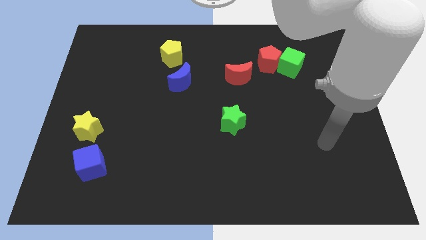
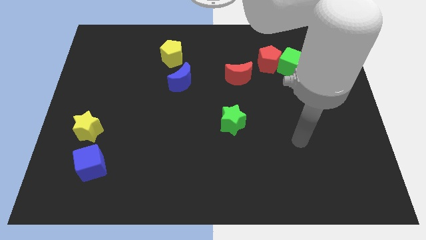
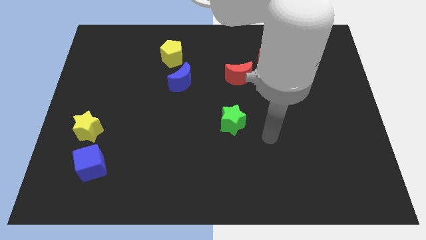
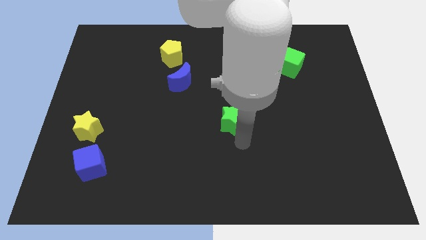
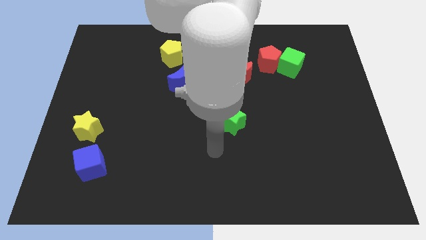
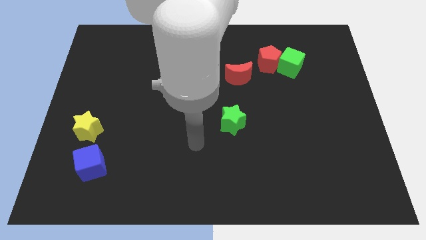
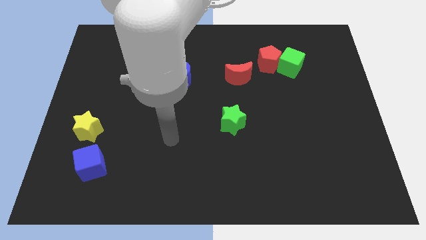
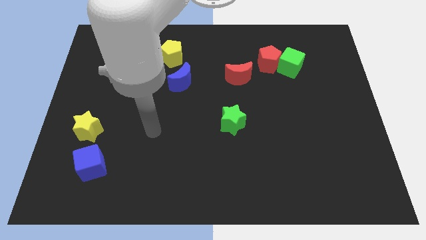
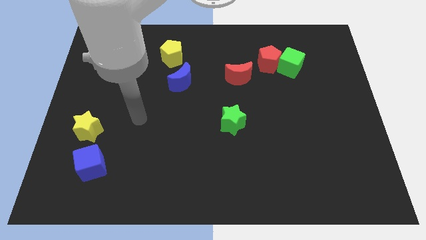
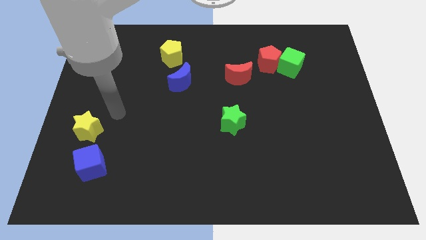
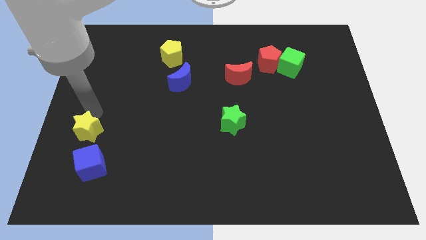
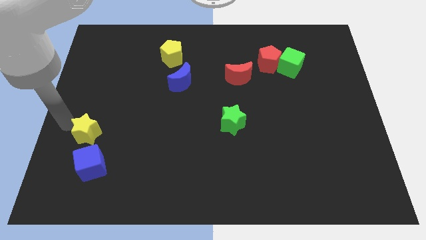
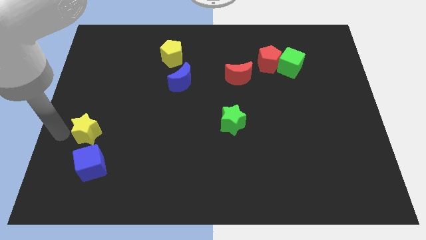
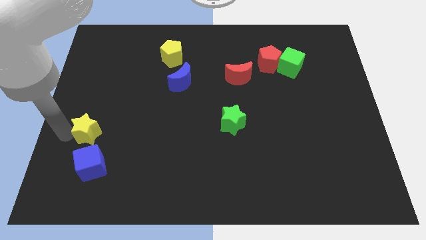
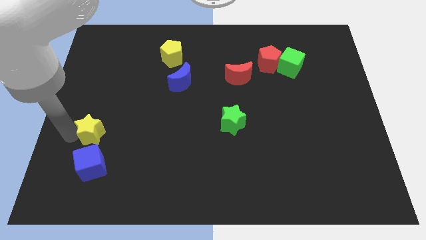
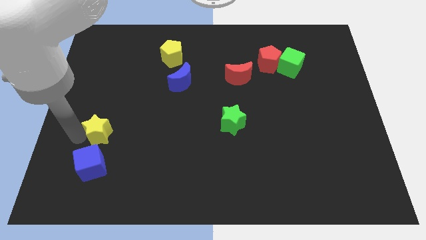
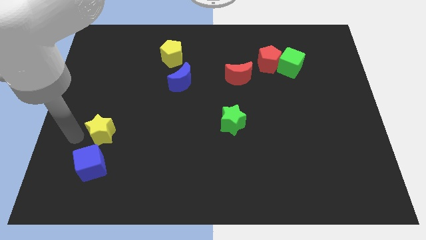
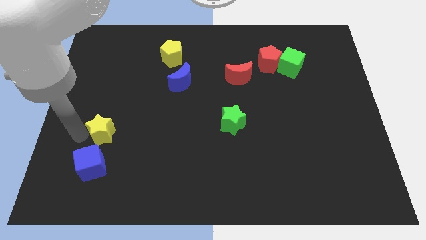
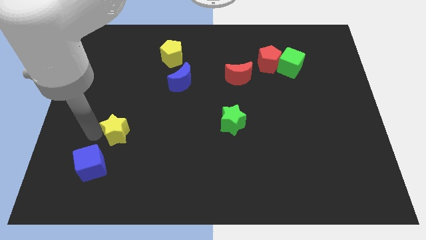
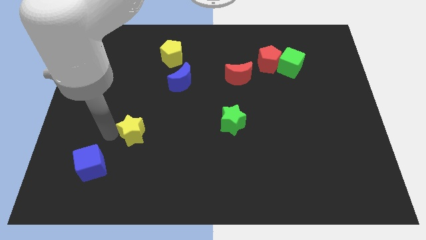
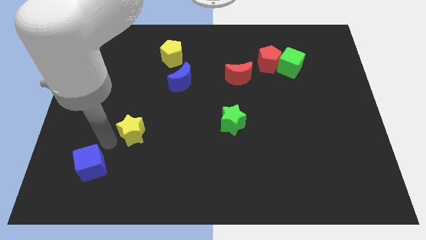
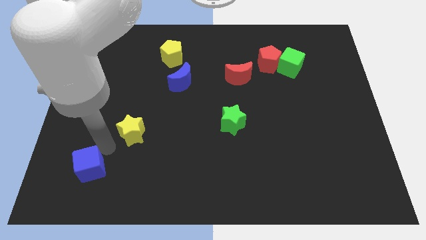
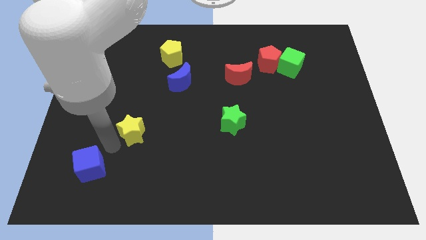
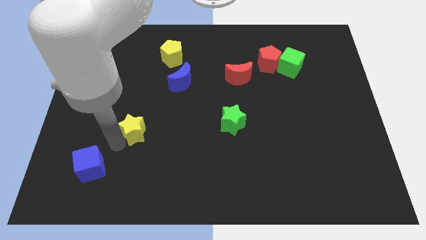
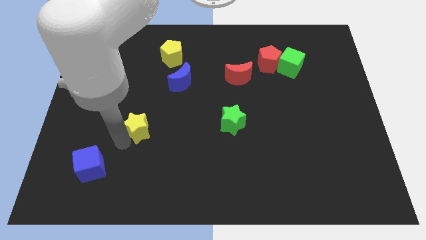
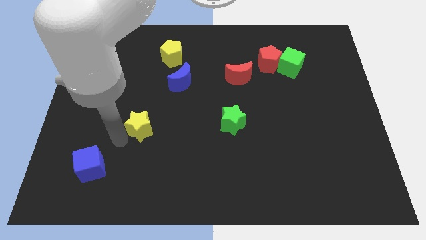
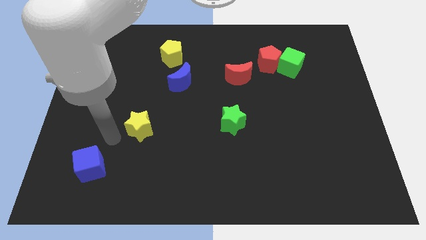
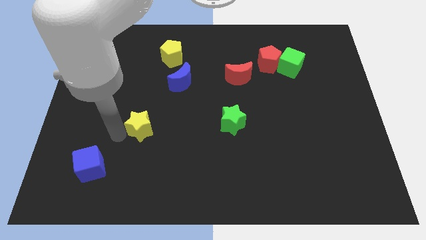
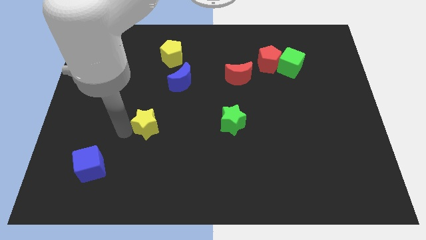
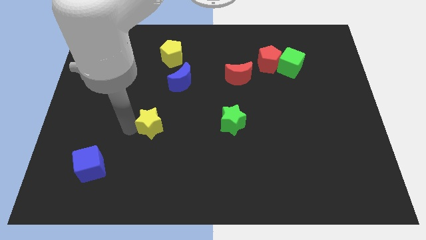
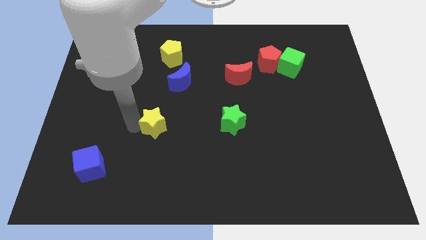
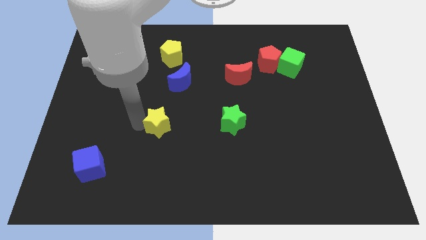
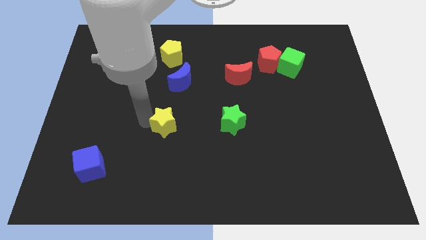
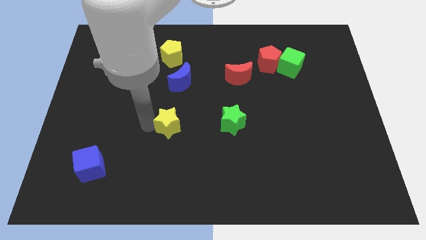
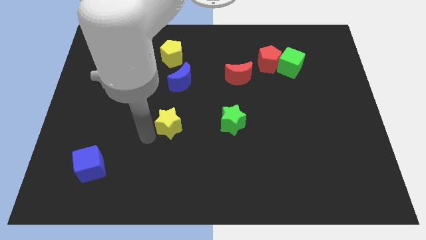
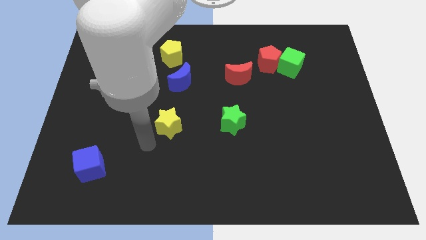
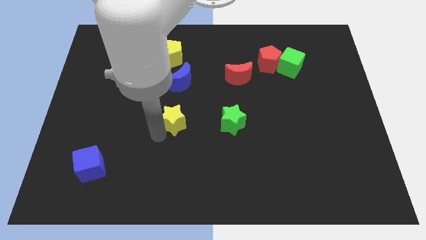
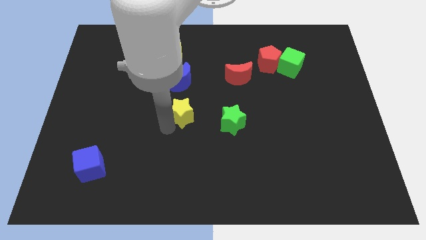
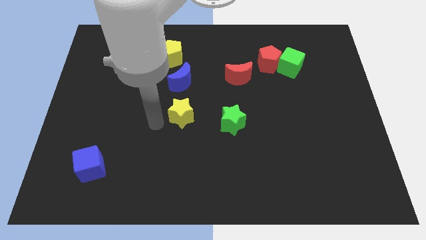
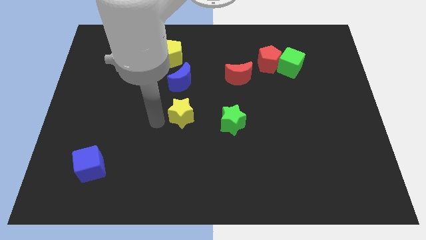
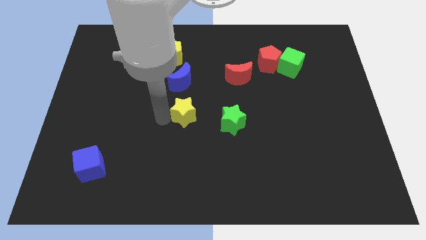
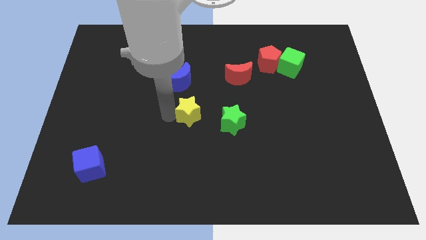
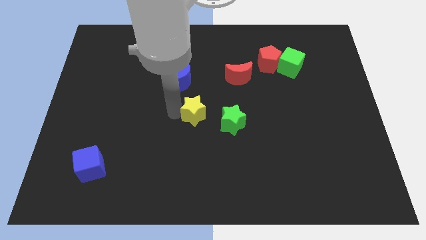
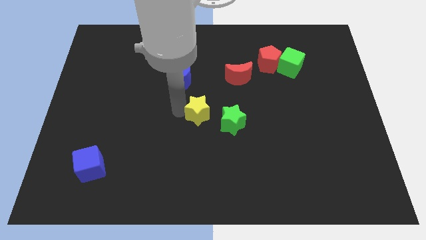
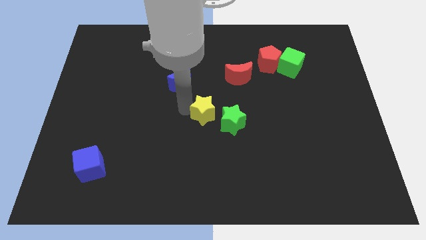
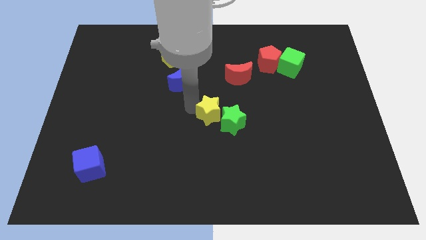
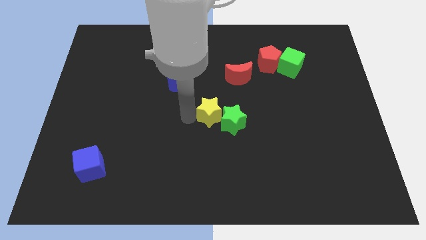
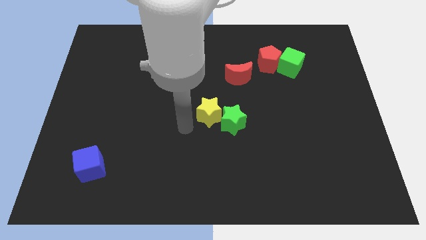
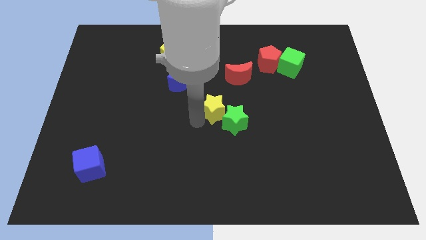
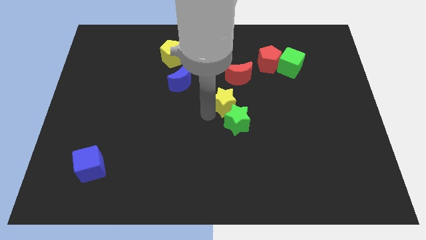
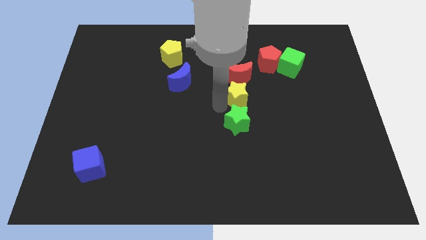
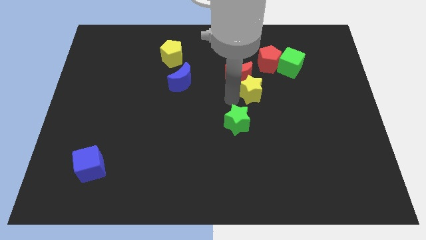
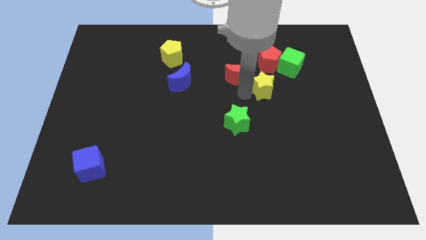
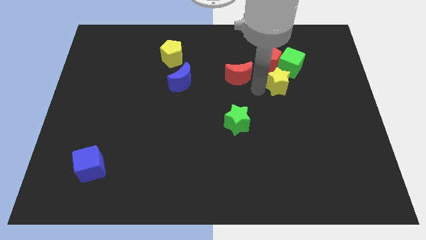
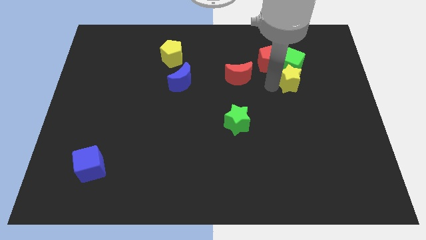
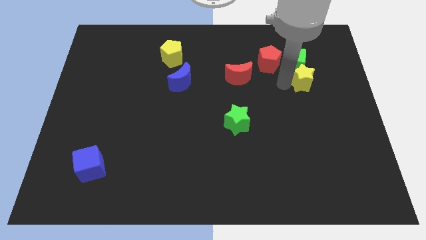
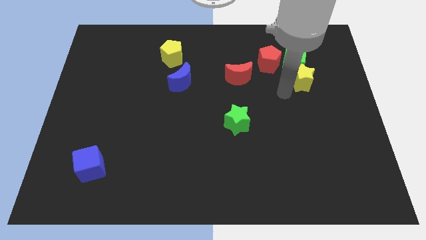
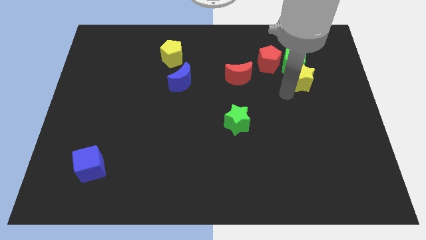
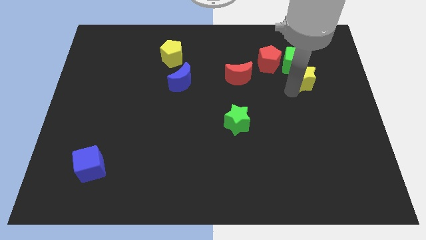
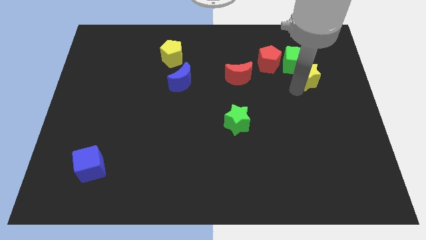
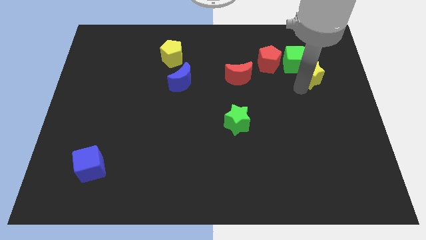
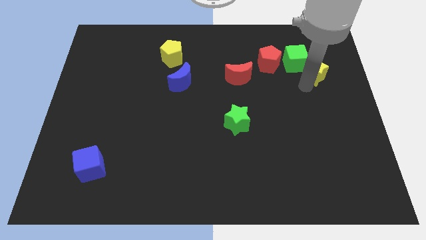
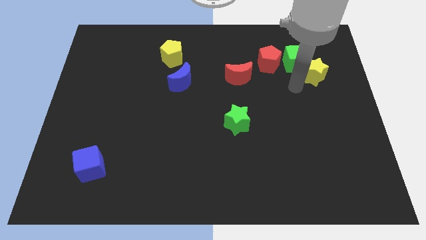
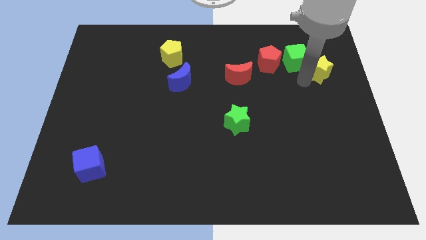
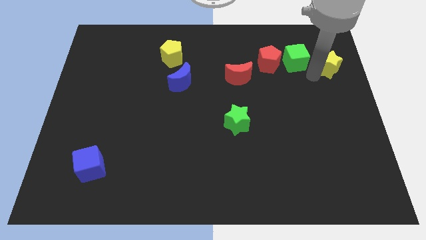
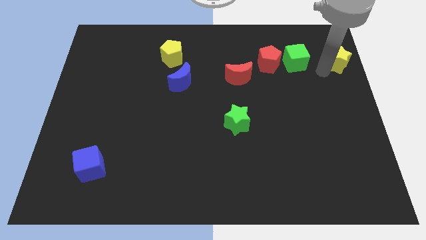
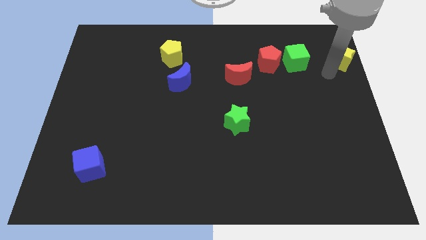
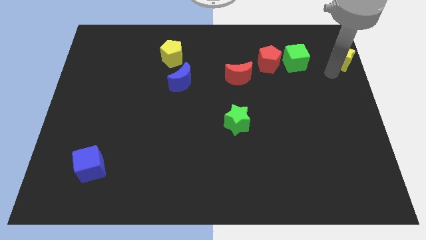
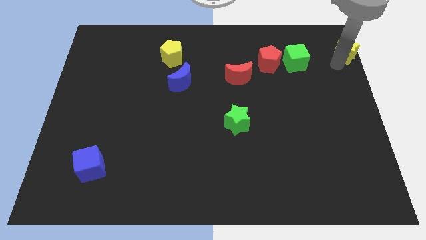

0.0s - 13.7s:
push the yellow star to the top right of the board
